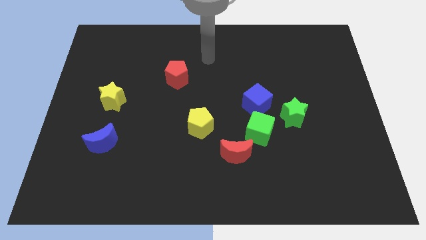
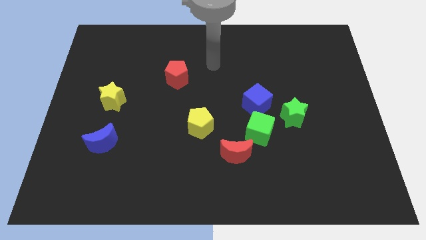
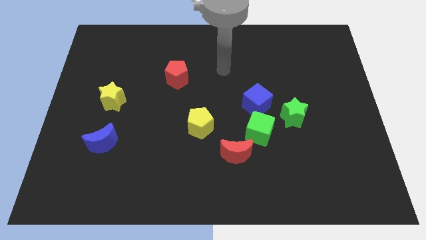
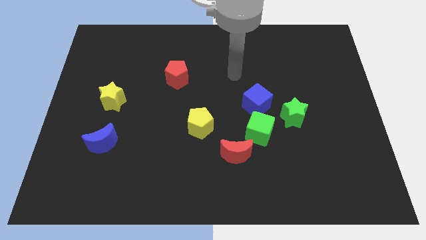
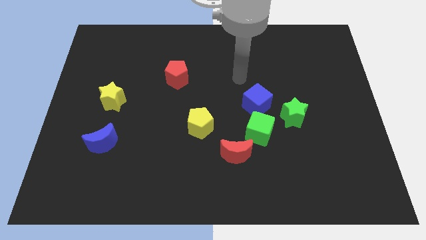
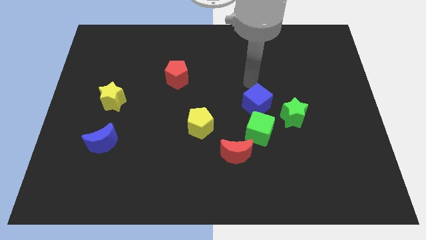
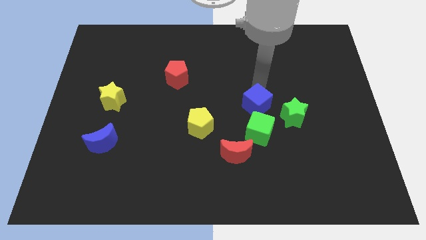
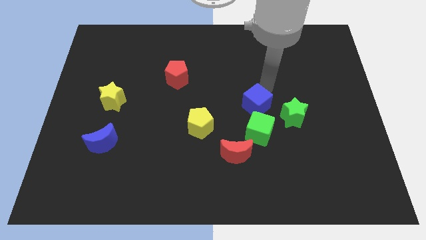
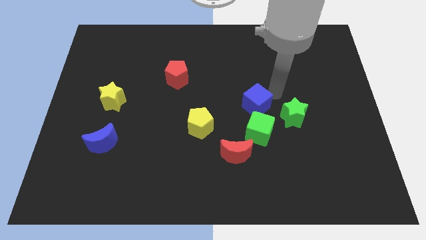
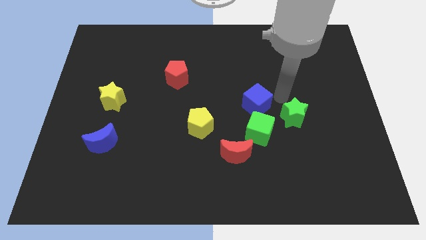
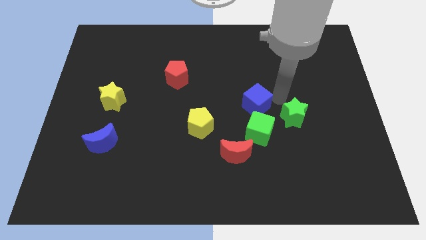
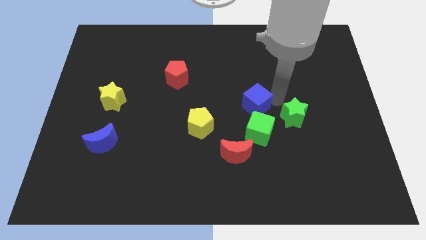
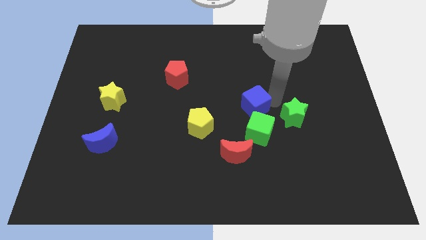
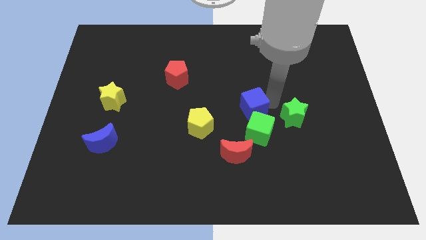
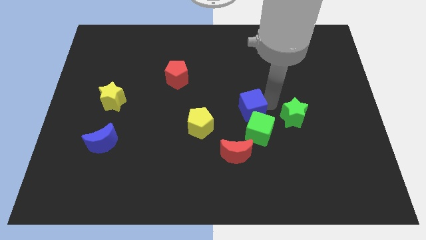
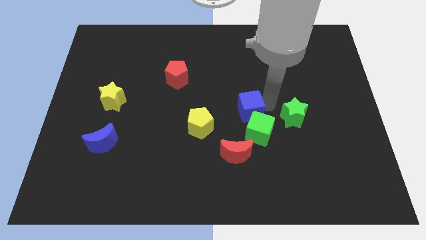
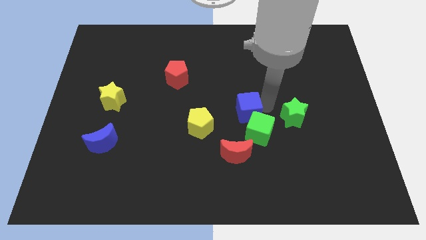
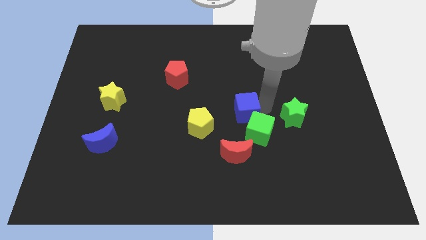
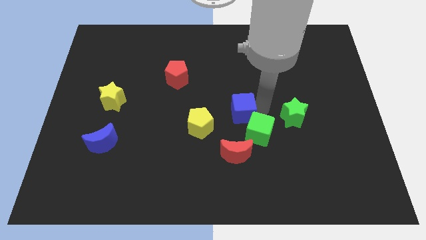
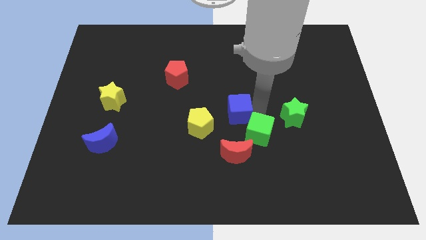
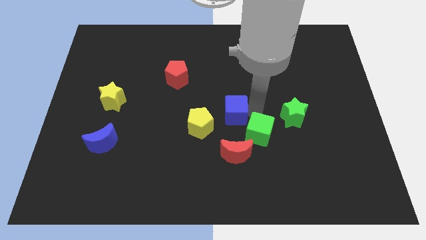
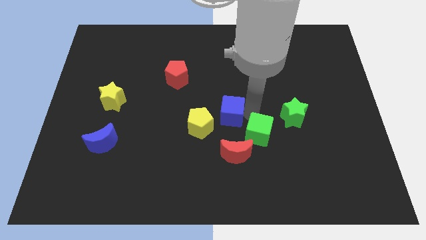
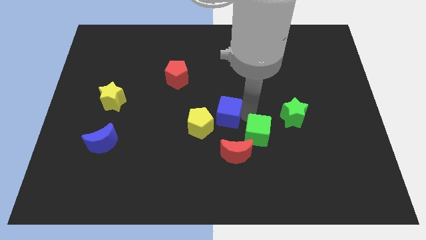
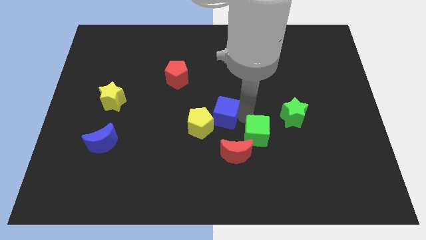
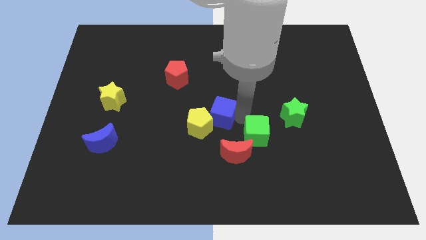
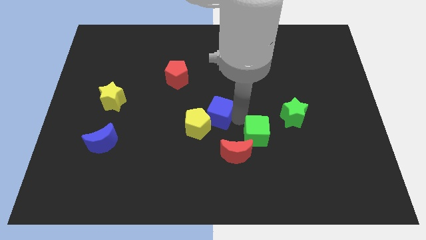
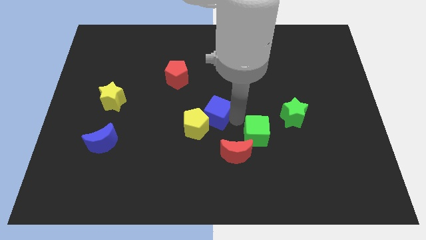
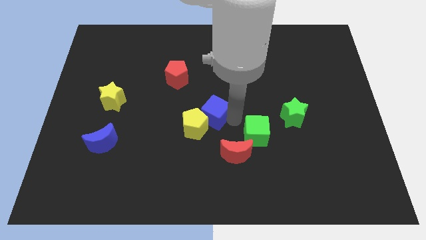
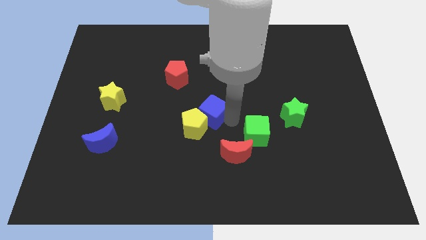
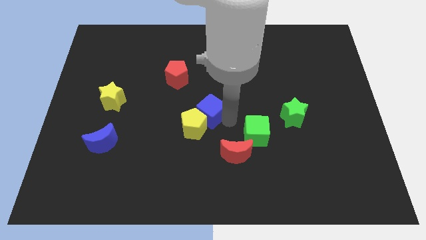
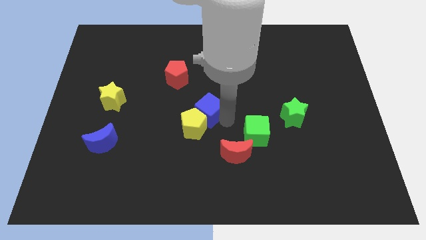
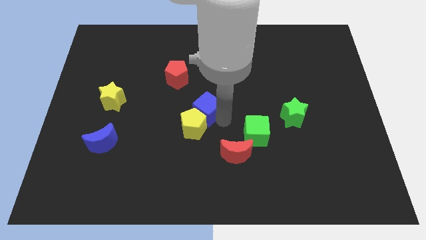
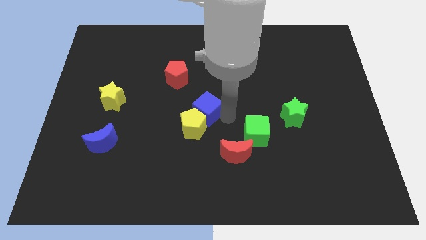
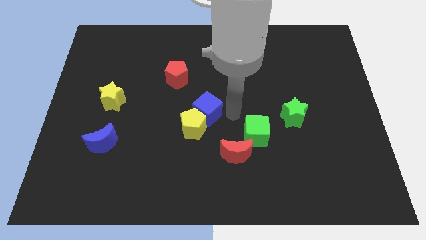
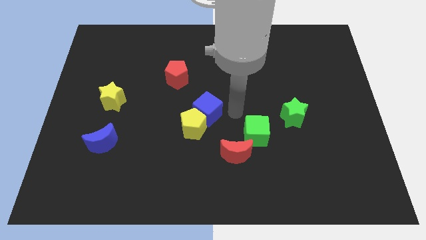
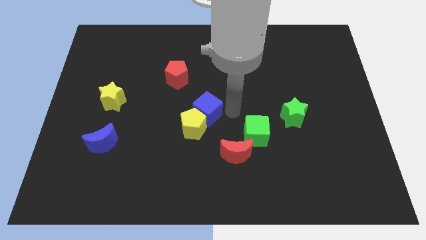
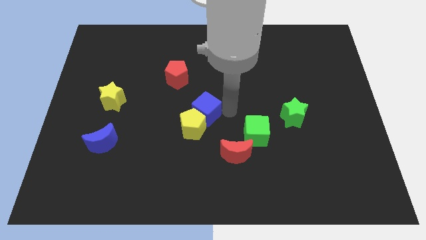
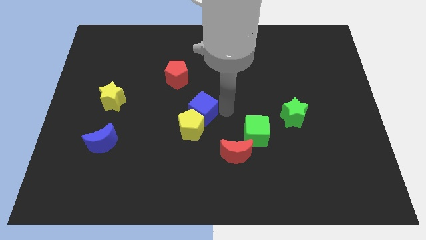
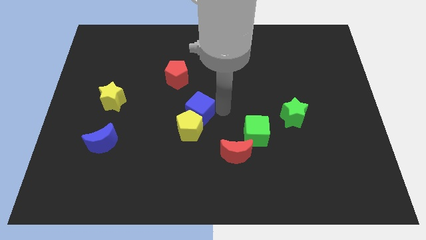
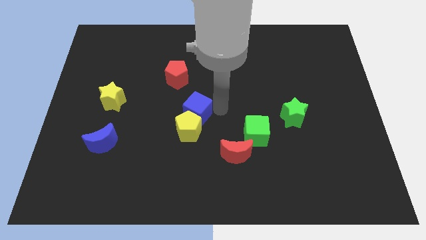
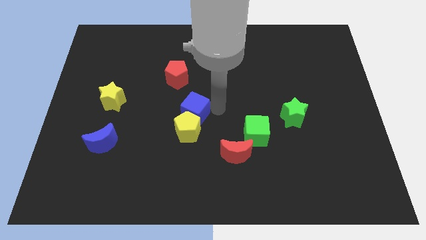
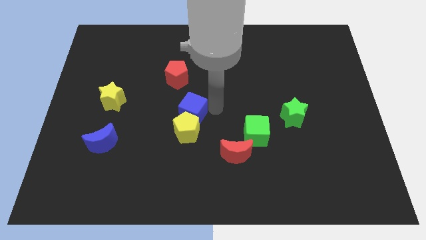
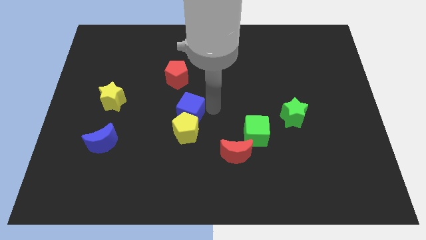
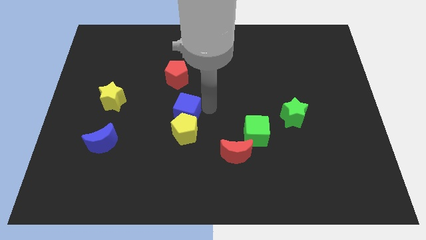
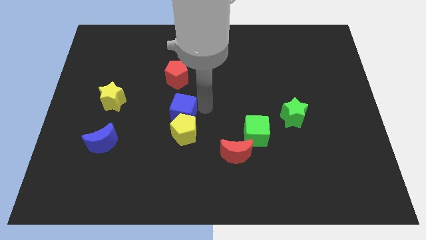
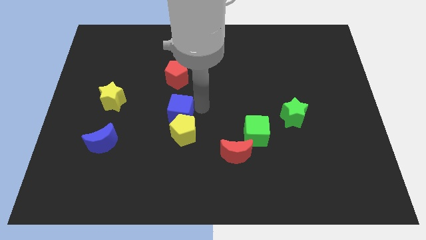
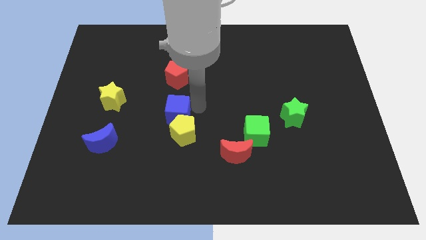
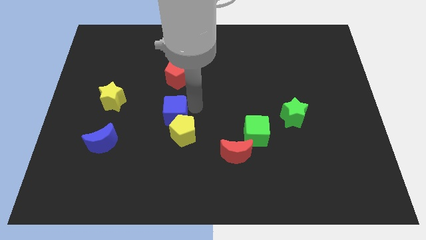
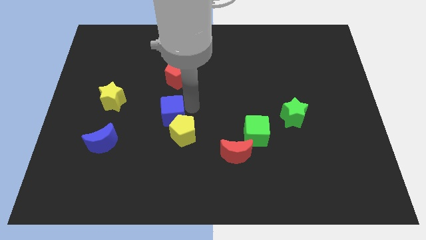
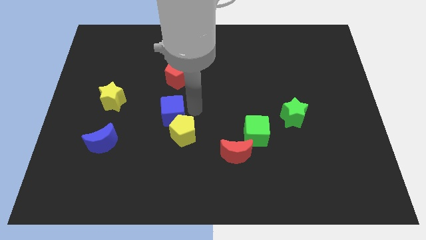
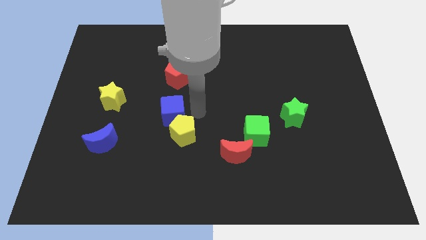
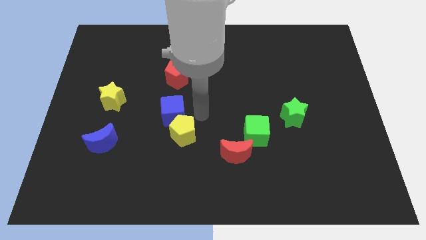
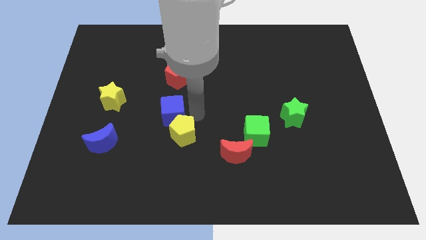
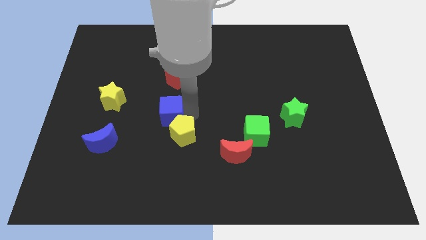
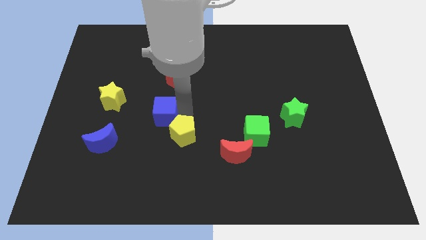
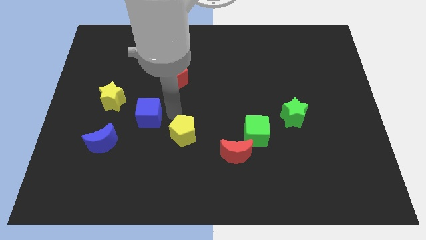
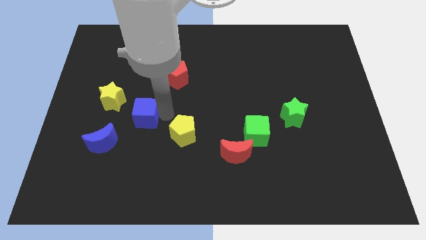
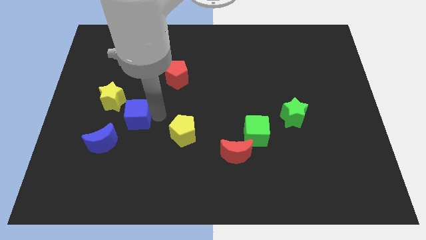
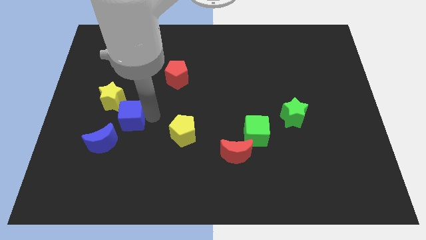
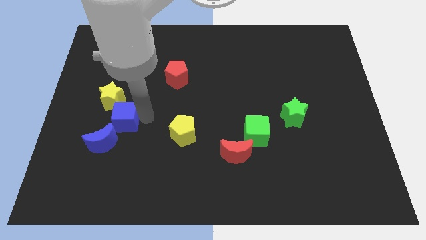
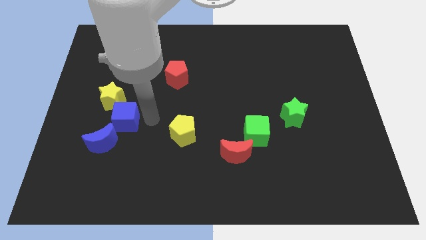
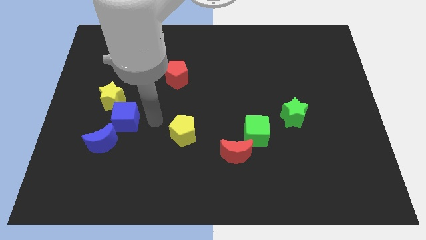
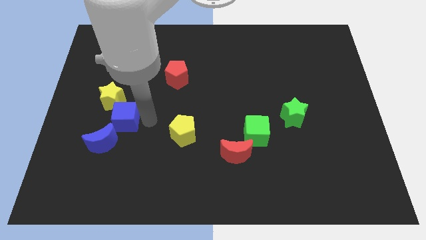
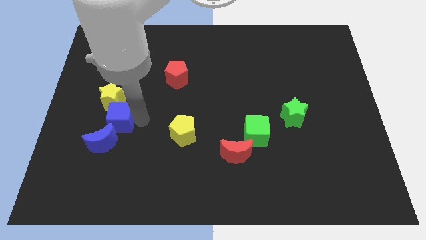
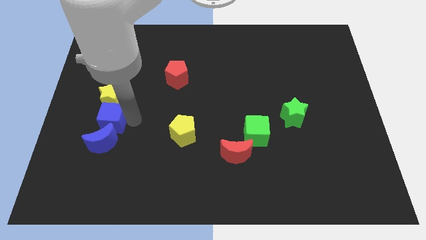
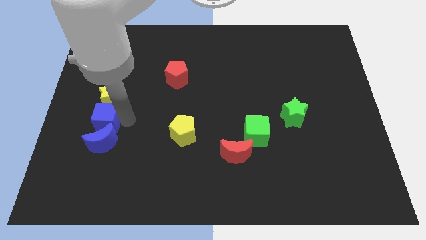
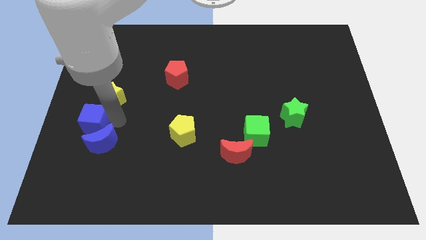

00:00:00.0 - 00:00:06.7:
move the blue cube to the left side of the board
